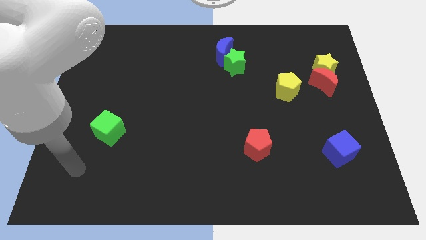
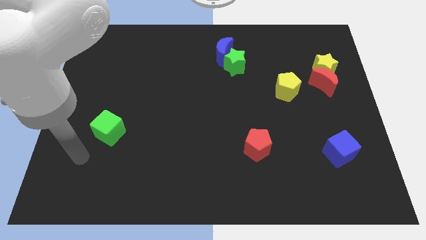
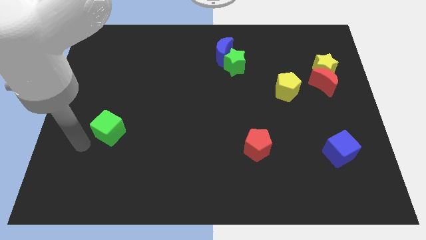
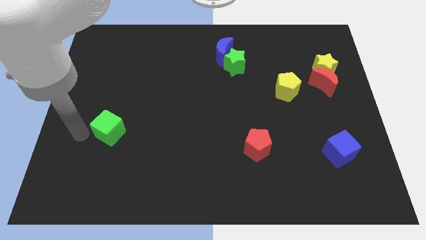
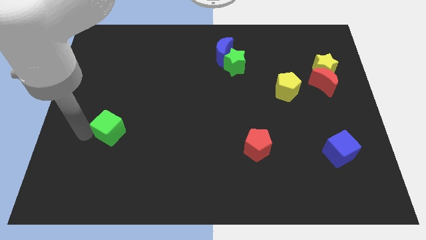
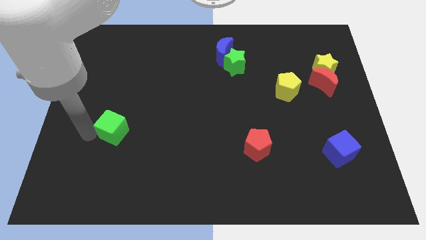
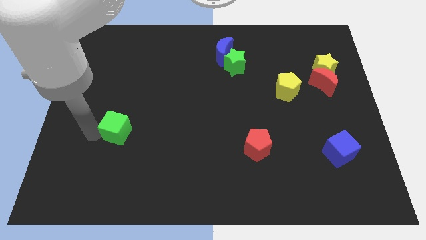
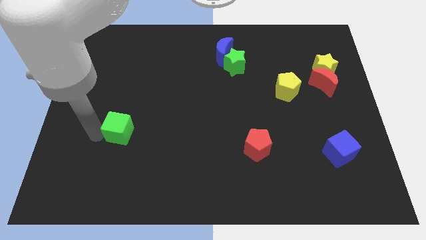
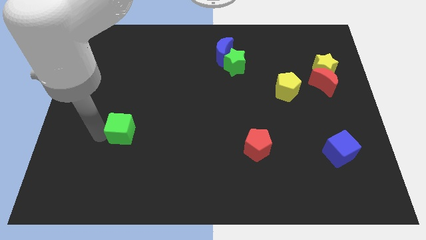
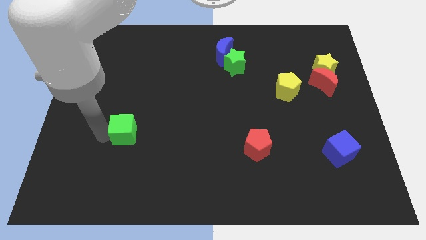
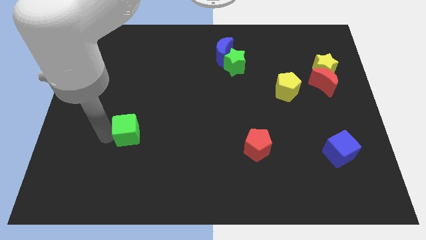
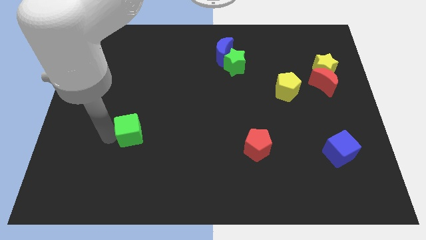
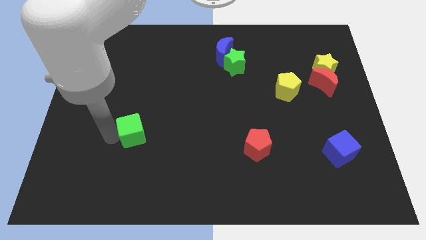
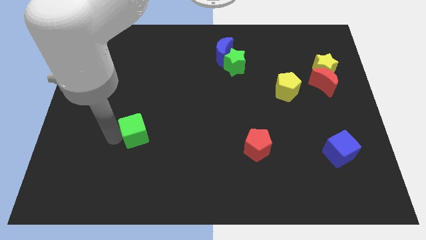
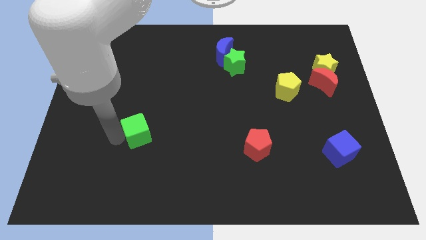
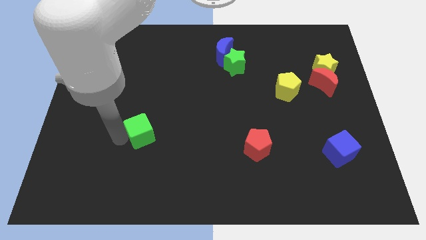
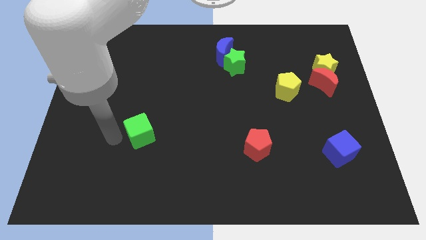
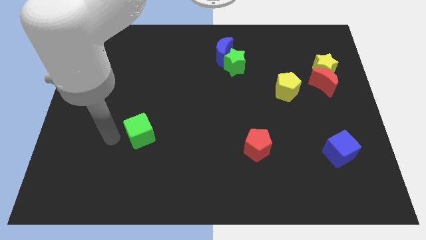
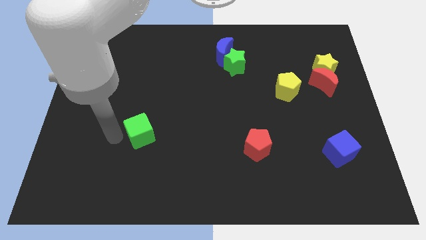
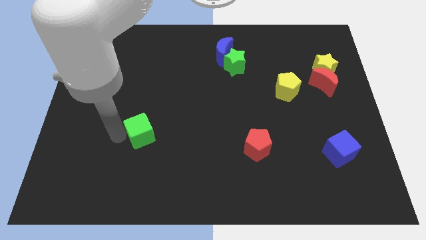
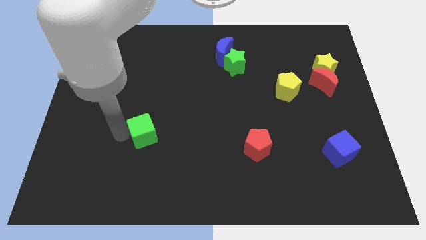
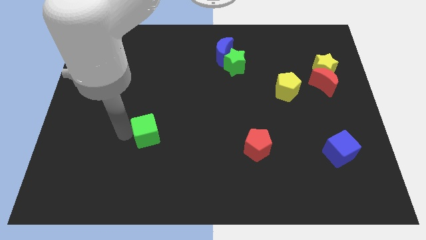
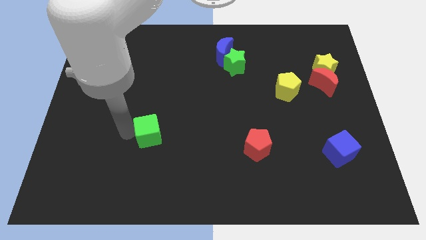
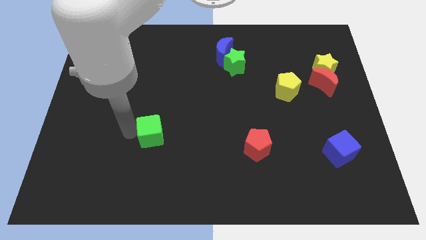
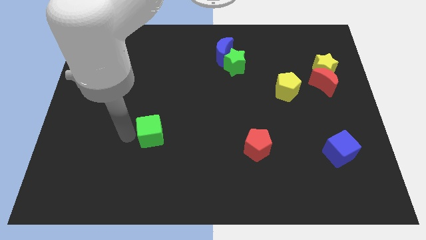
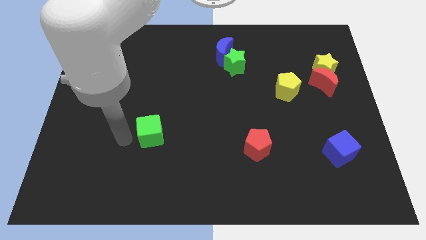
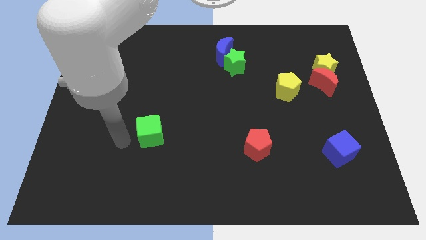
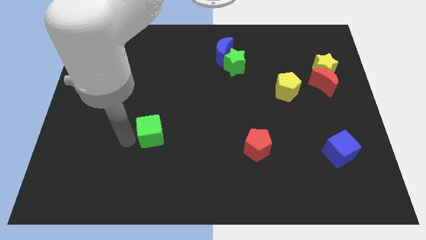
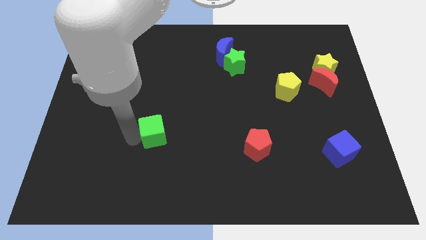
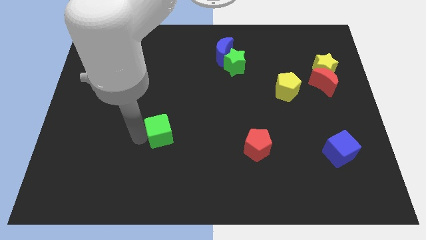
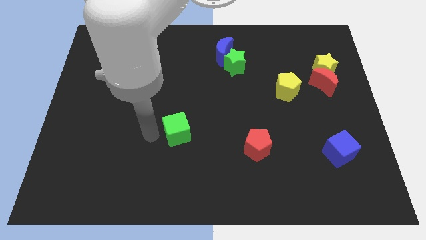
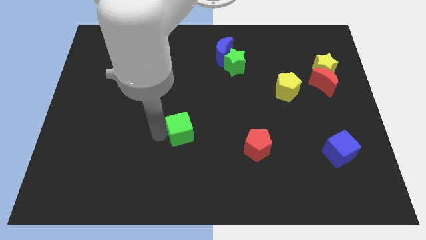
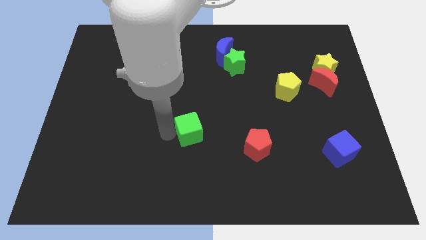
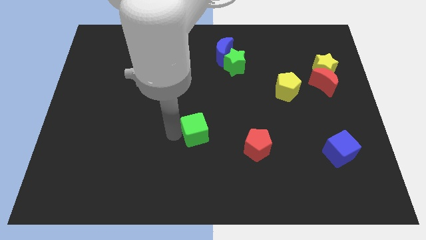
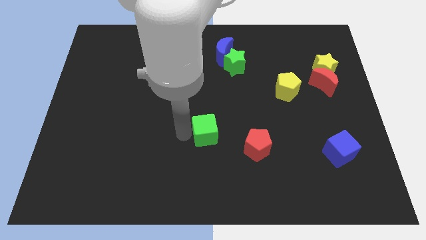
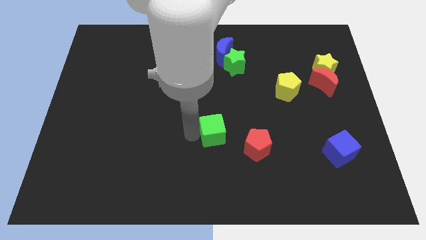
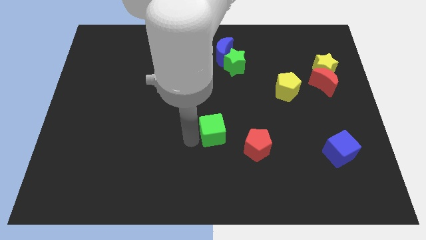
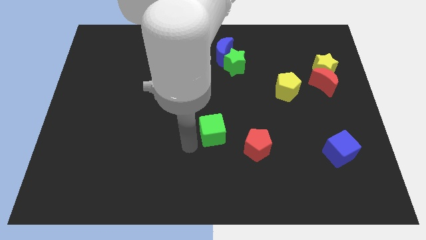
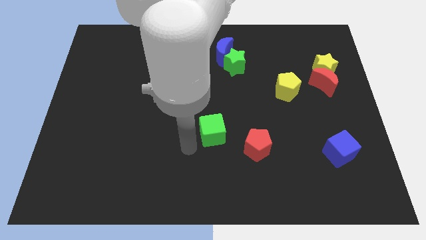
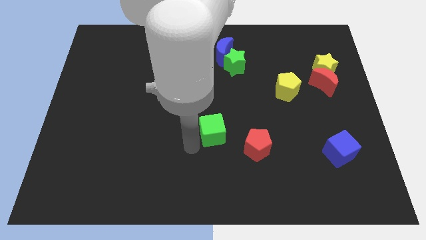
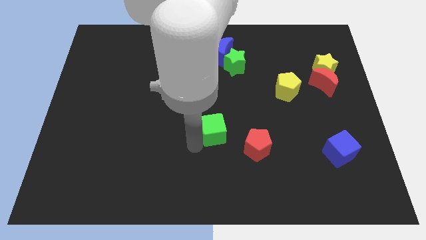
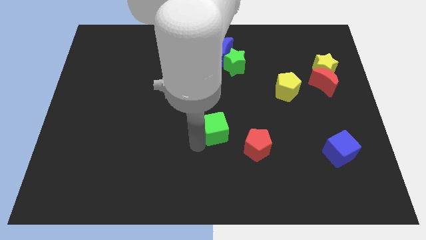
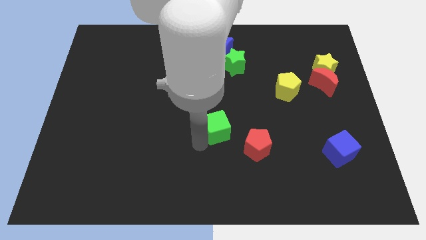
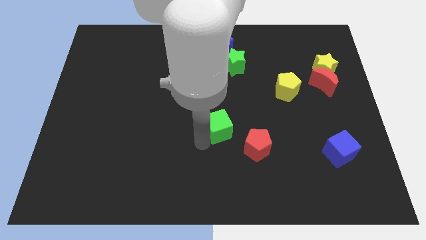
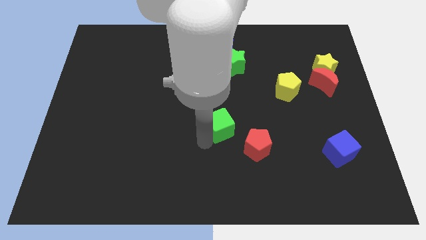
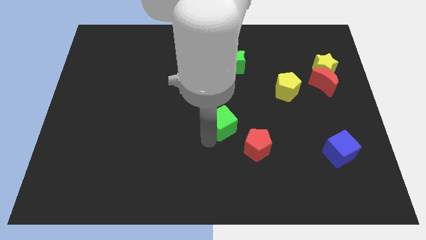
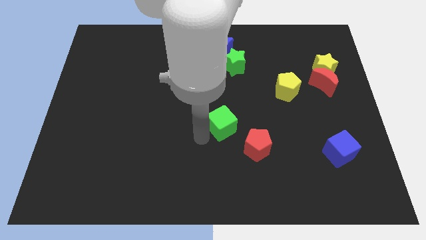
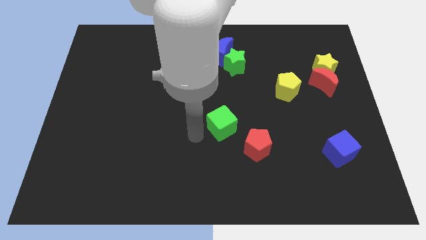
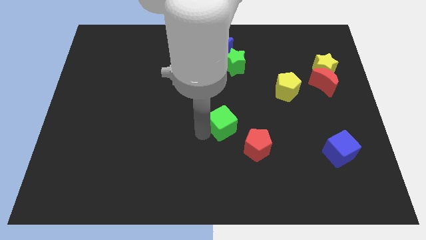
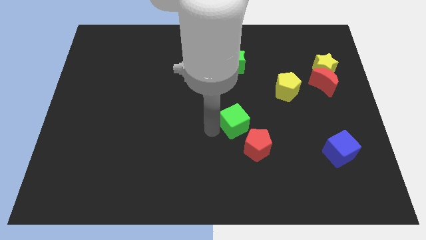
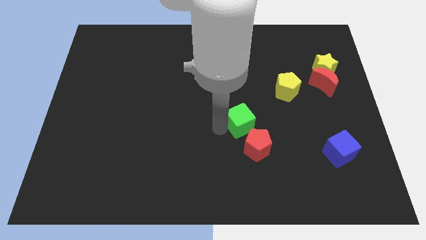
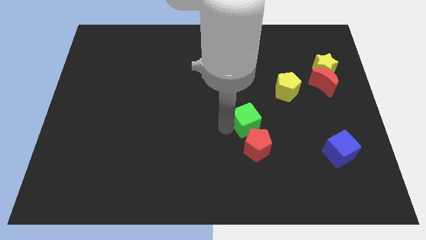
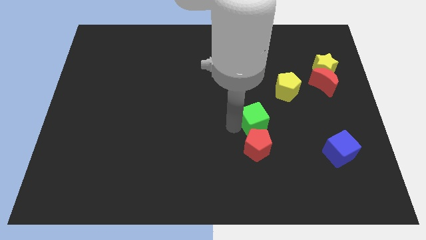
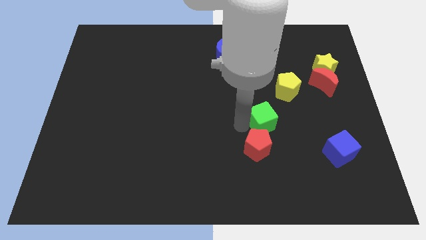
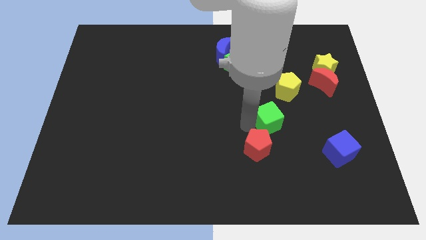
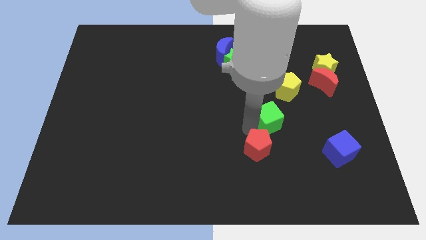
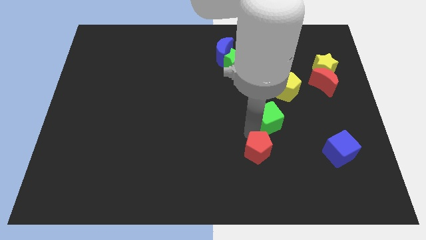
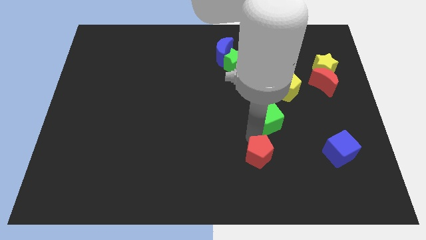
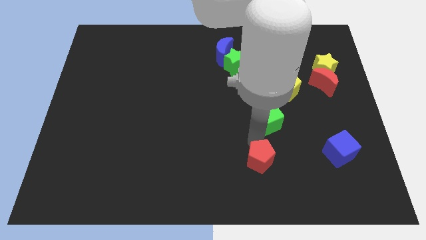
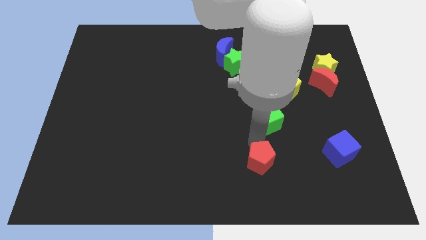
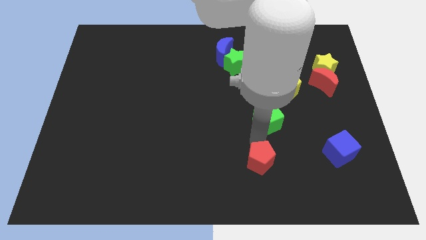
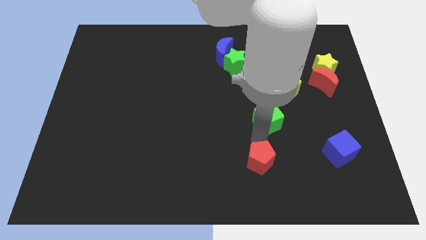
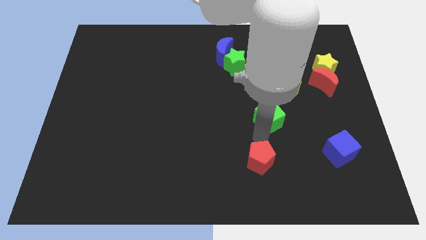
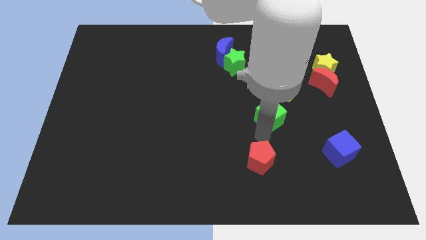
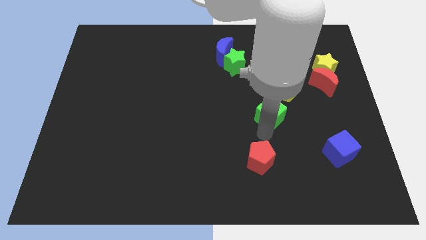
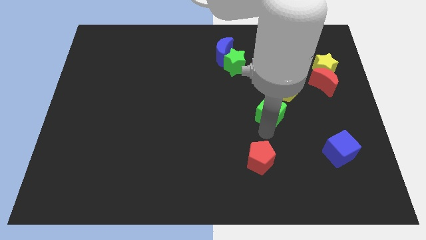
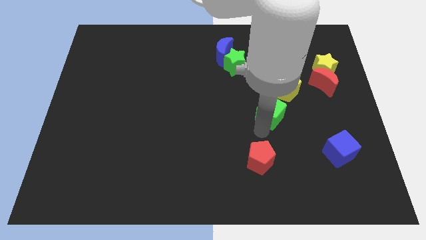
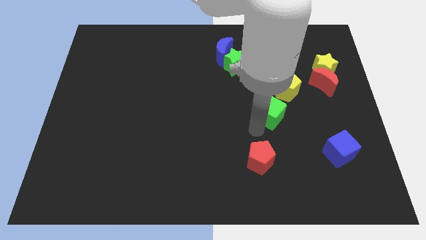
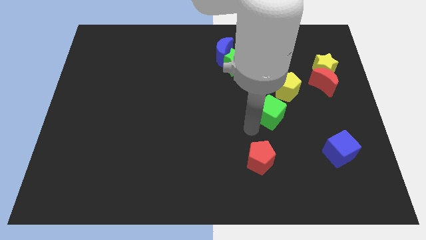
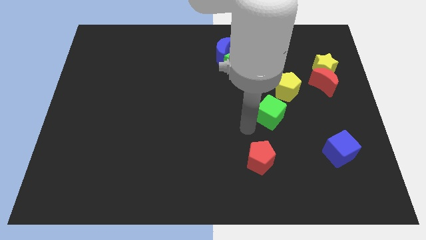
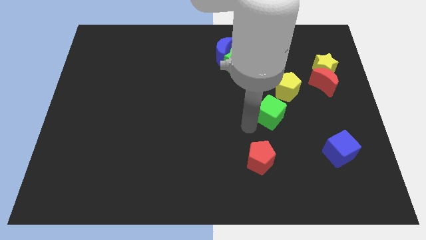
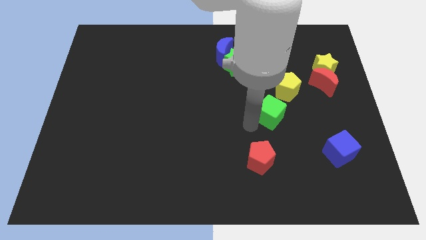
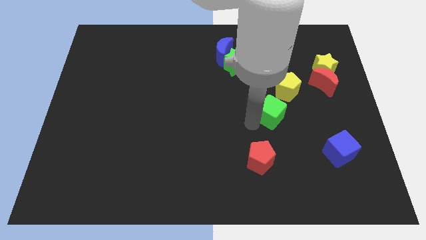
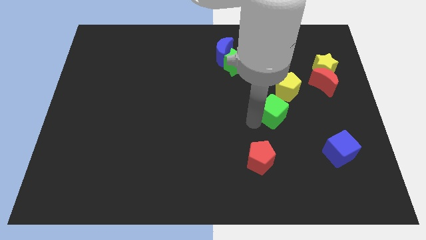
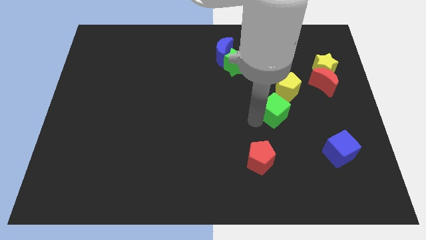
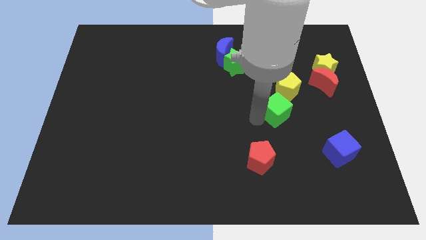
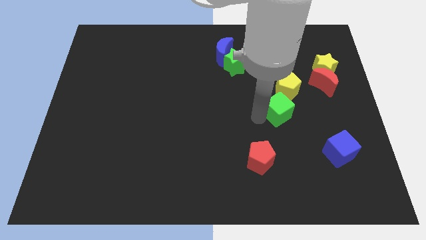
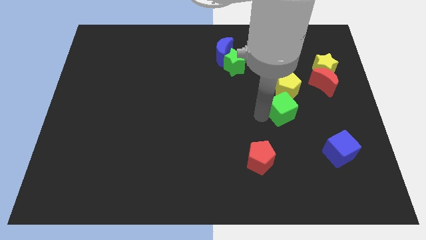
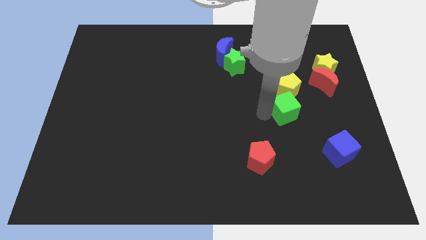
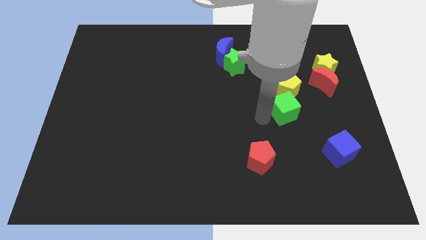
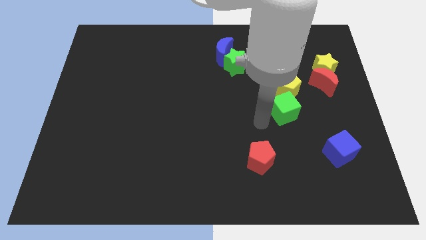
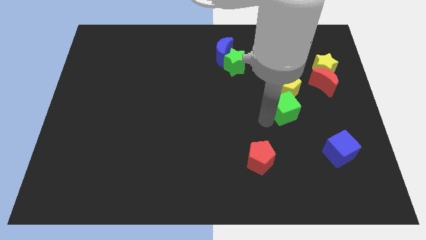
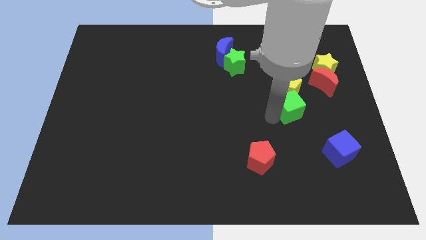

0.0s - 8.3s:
put the green cube diagonally down and to the left of the red moon
